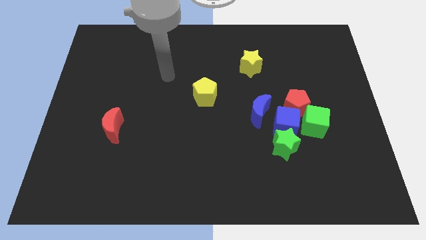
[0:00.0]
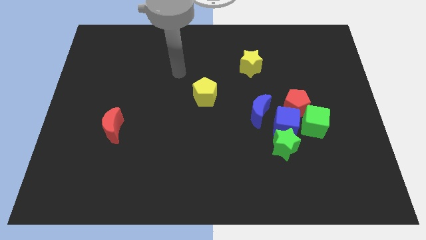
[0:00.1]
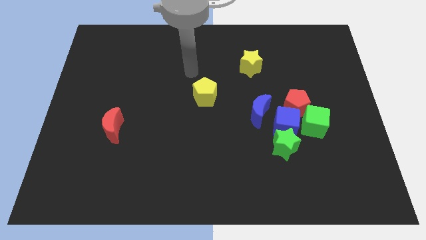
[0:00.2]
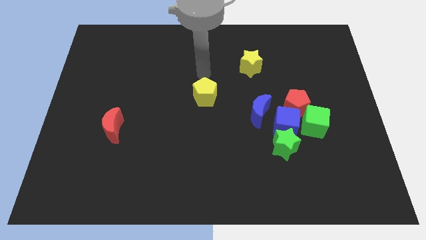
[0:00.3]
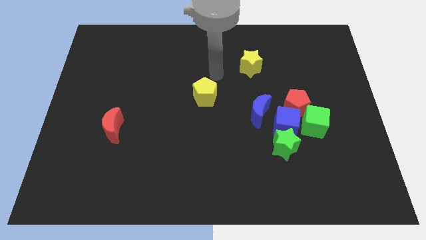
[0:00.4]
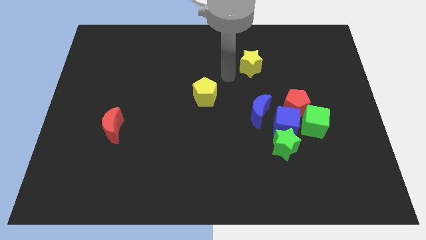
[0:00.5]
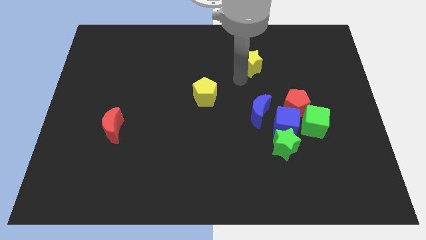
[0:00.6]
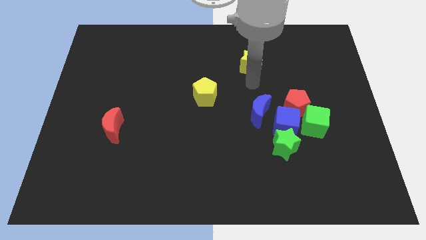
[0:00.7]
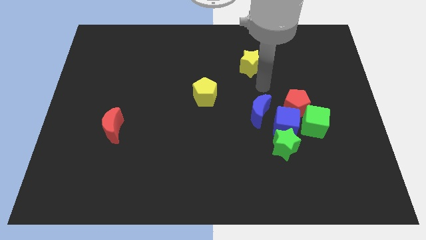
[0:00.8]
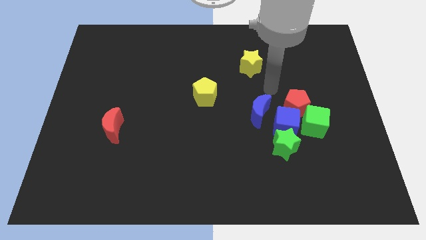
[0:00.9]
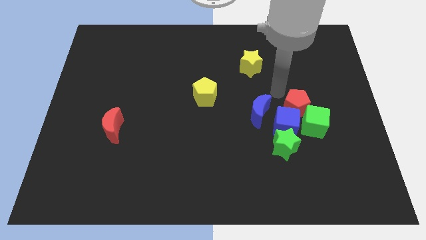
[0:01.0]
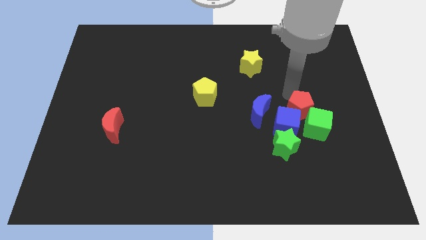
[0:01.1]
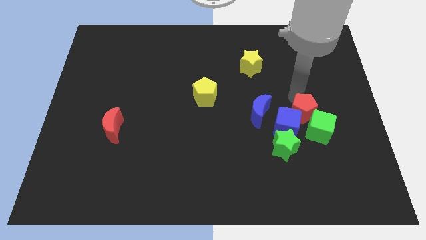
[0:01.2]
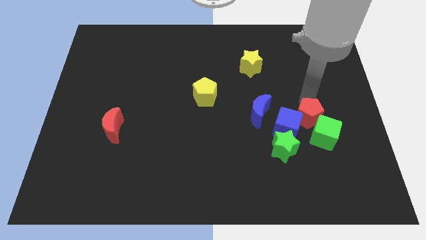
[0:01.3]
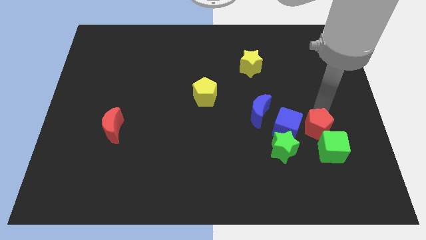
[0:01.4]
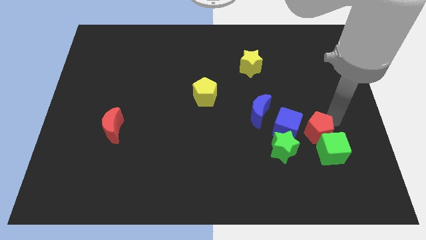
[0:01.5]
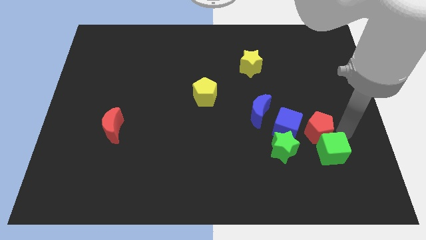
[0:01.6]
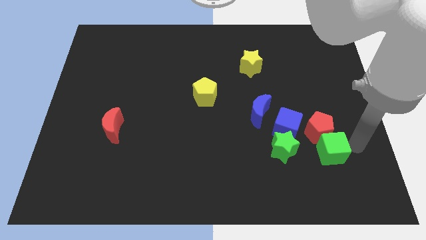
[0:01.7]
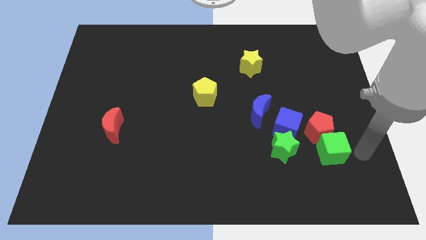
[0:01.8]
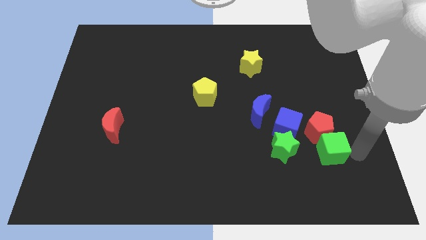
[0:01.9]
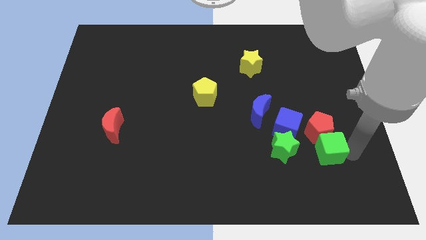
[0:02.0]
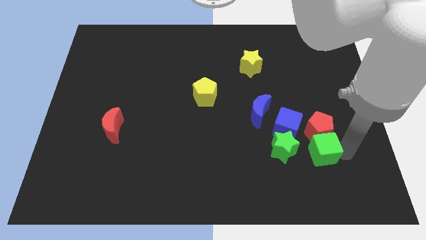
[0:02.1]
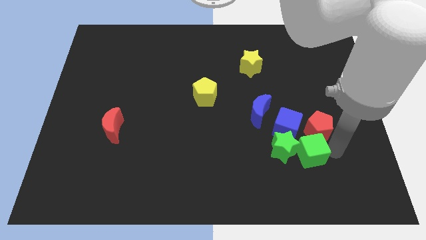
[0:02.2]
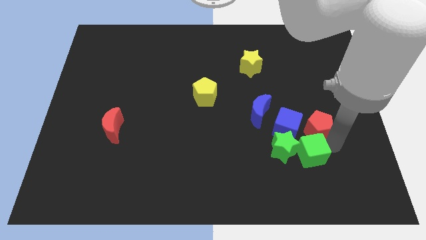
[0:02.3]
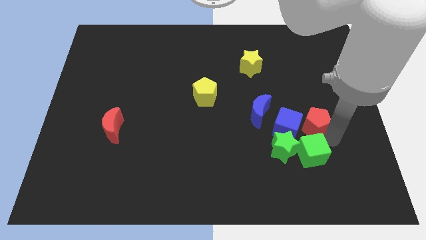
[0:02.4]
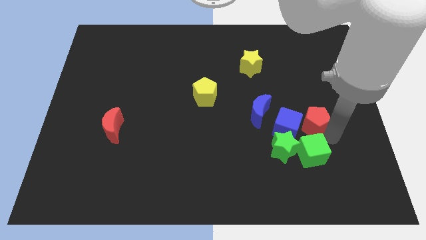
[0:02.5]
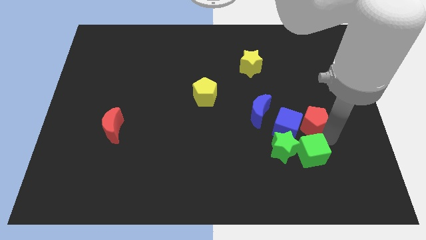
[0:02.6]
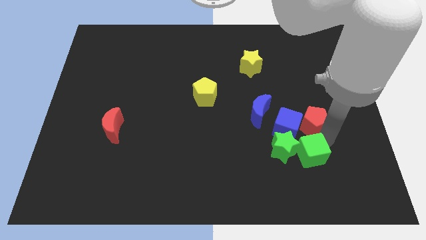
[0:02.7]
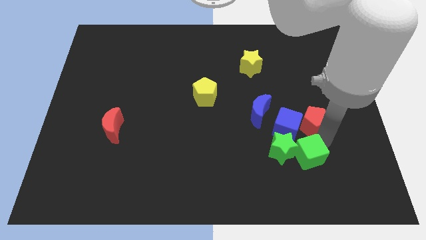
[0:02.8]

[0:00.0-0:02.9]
slide the green cube a bit down and then to the left

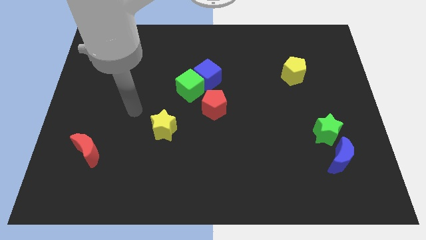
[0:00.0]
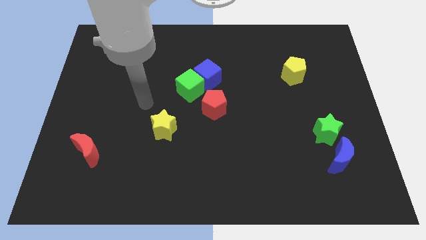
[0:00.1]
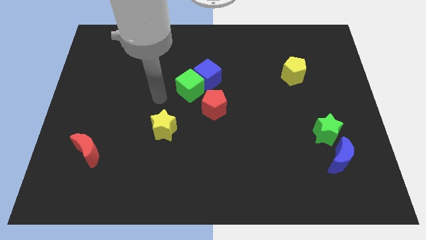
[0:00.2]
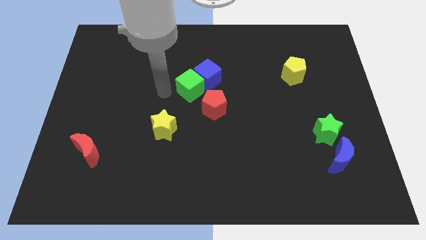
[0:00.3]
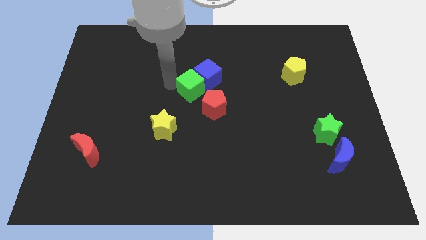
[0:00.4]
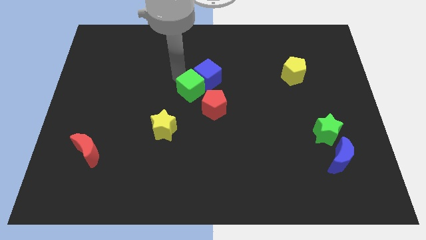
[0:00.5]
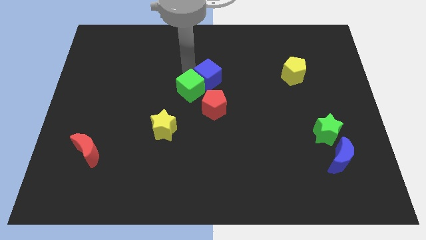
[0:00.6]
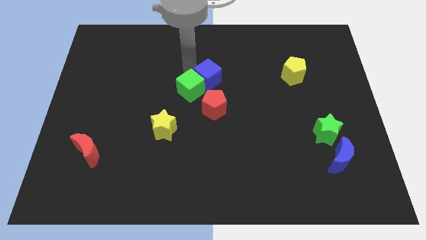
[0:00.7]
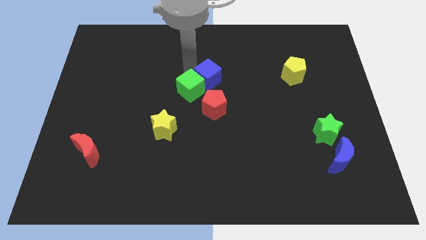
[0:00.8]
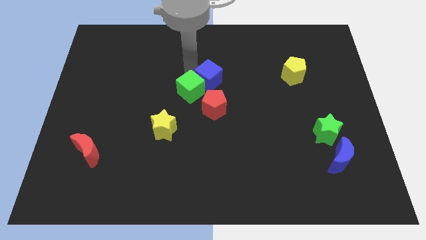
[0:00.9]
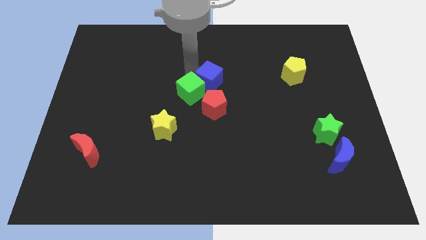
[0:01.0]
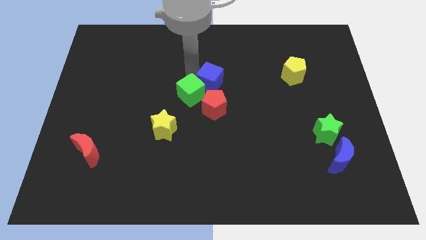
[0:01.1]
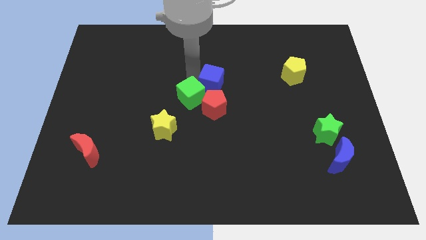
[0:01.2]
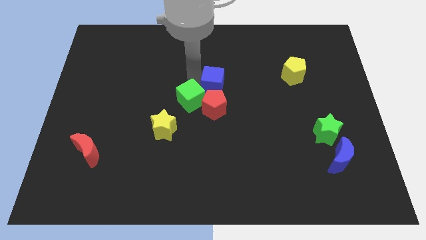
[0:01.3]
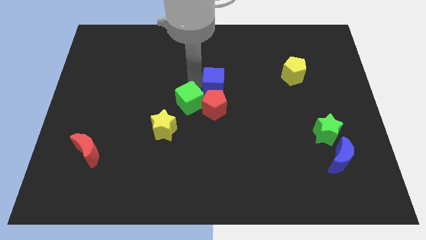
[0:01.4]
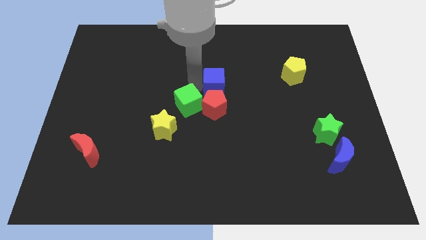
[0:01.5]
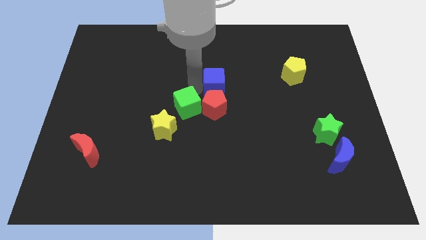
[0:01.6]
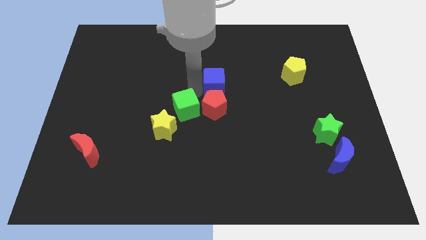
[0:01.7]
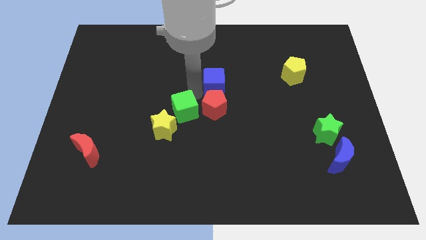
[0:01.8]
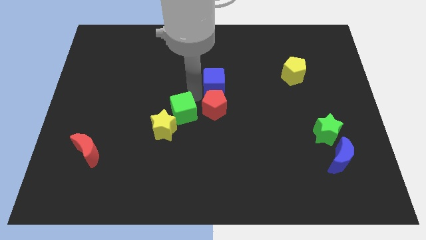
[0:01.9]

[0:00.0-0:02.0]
move the green cube a little bit down

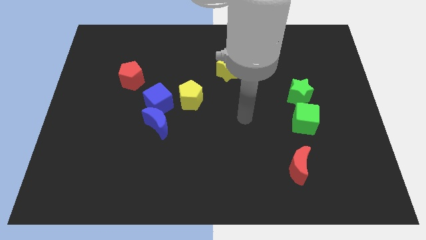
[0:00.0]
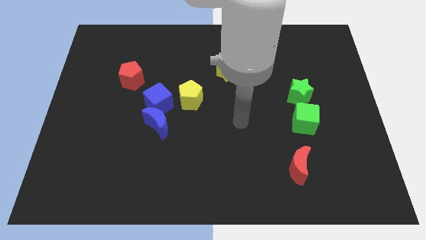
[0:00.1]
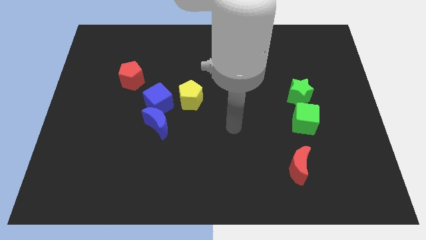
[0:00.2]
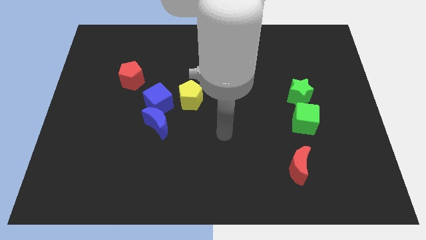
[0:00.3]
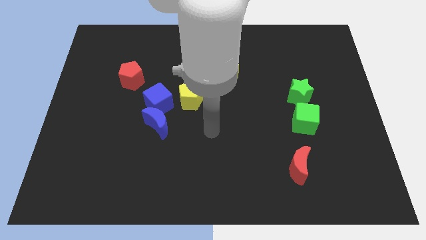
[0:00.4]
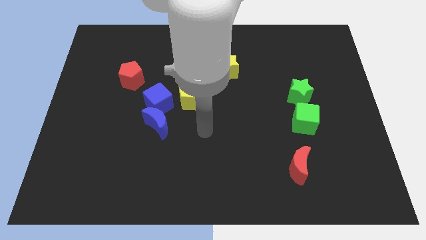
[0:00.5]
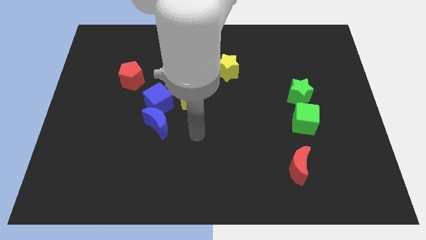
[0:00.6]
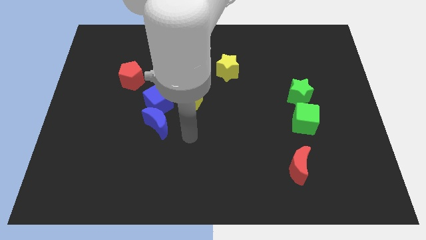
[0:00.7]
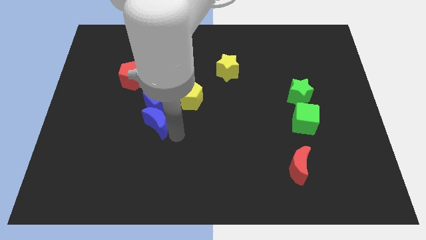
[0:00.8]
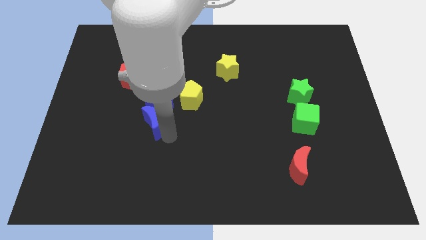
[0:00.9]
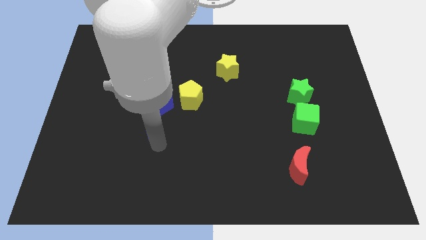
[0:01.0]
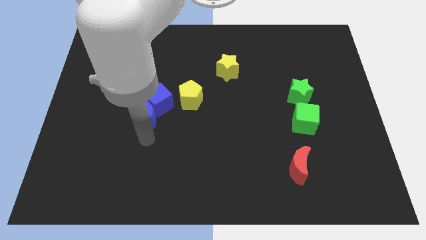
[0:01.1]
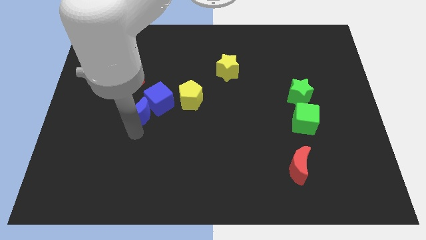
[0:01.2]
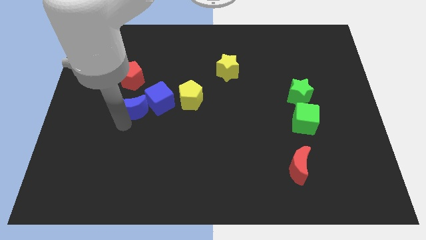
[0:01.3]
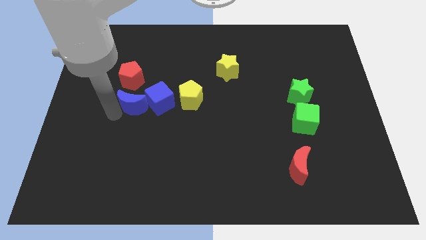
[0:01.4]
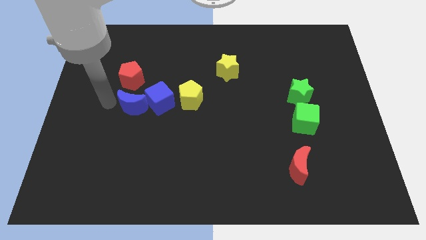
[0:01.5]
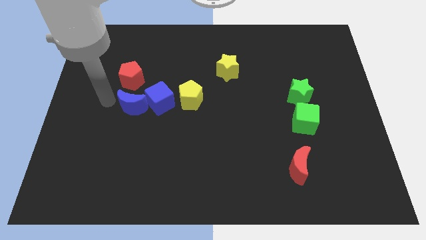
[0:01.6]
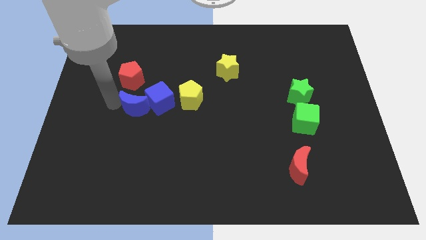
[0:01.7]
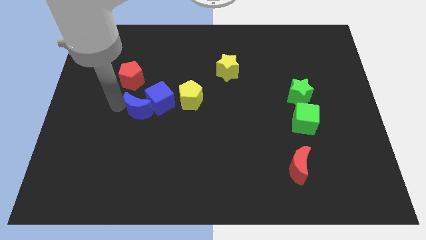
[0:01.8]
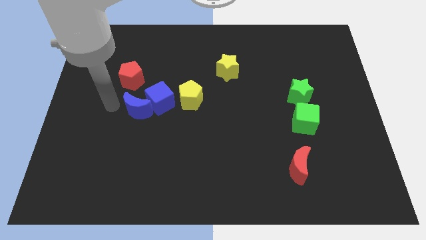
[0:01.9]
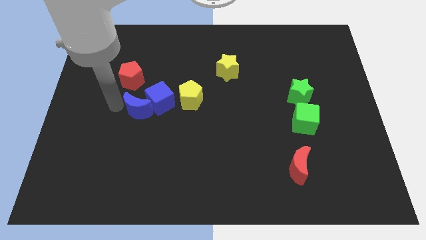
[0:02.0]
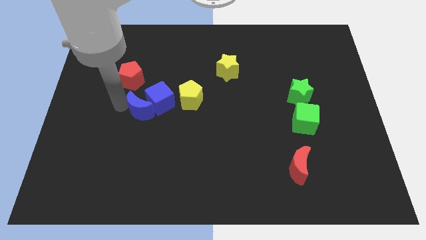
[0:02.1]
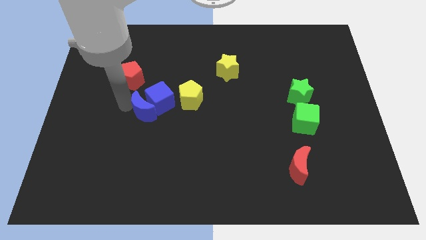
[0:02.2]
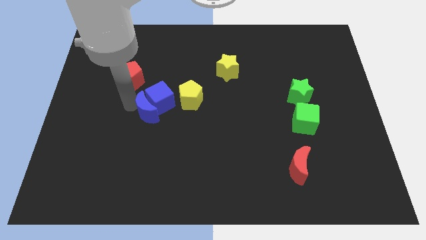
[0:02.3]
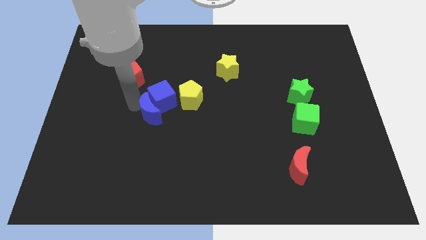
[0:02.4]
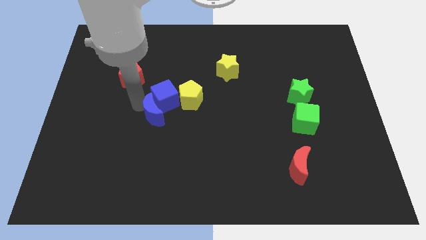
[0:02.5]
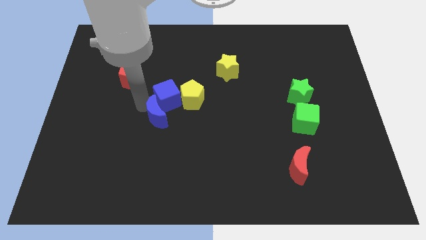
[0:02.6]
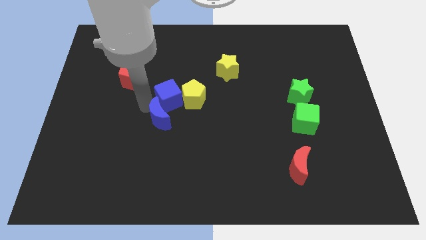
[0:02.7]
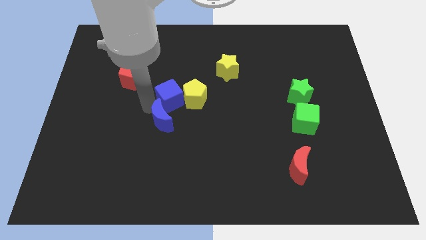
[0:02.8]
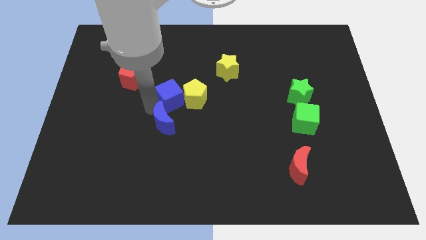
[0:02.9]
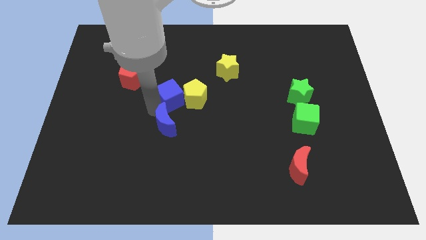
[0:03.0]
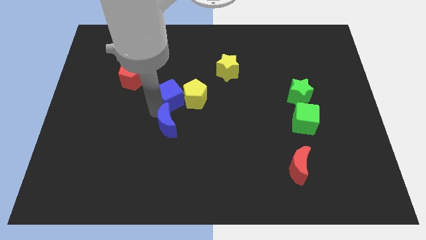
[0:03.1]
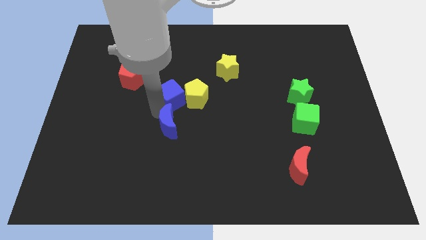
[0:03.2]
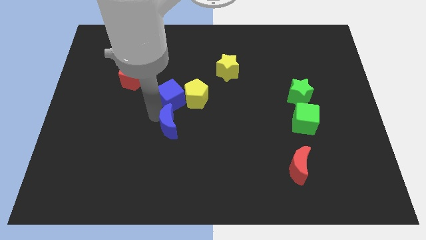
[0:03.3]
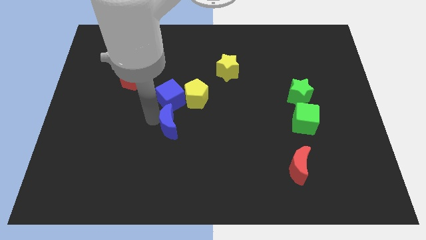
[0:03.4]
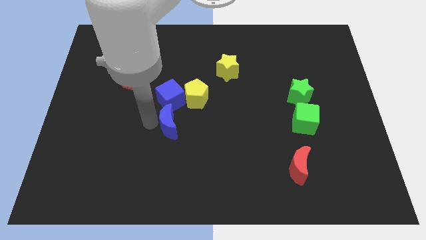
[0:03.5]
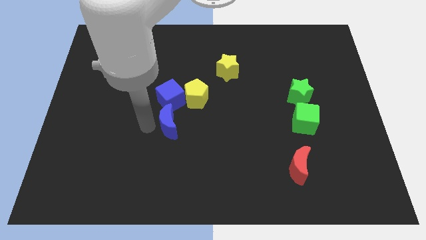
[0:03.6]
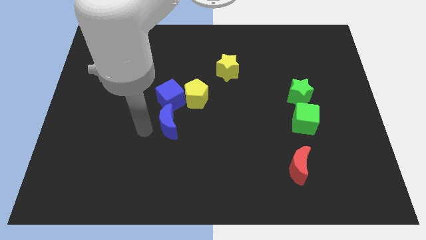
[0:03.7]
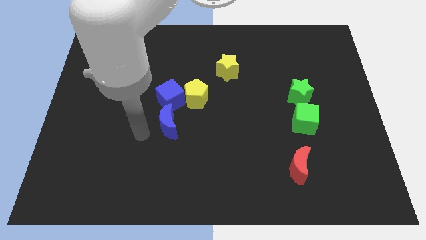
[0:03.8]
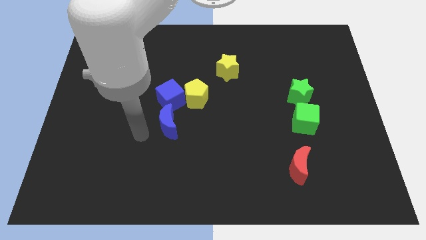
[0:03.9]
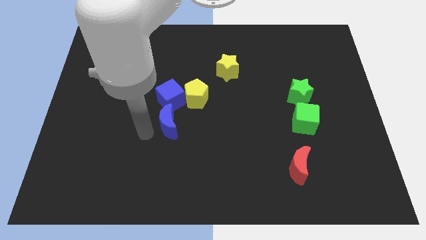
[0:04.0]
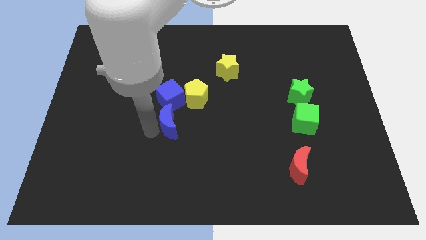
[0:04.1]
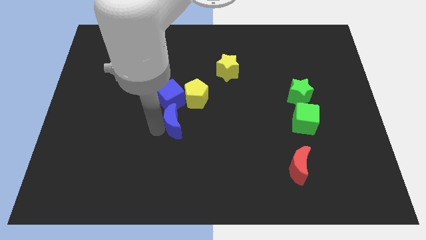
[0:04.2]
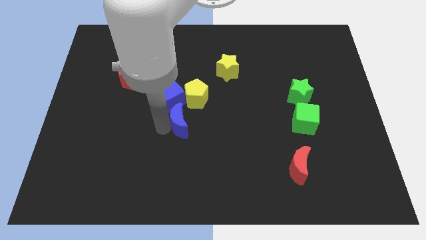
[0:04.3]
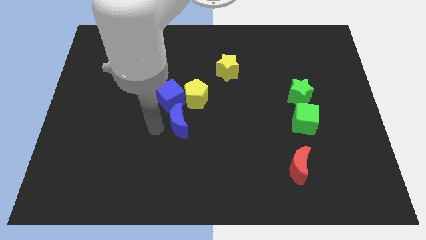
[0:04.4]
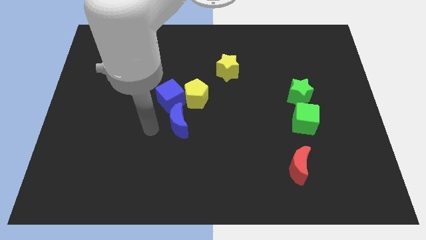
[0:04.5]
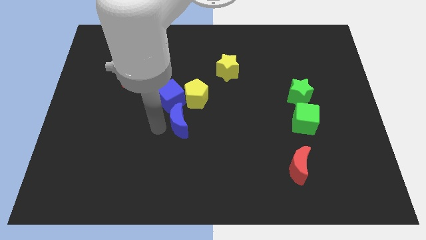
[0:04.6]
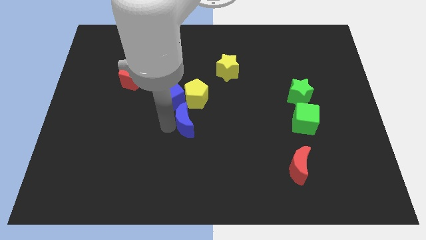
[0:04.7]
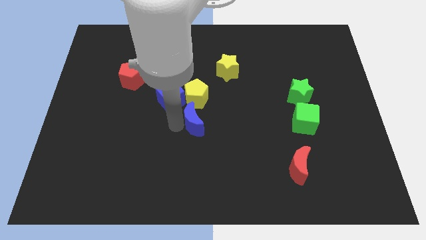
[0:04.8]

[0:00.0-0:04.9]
slide the blue moon somewhat to the right
